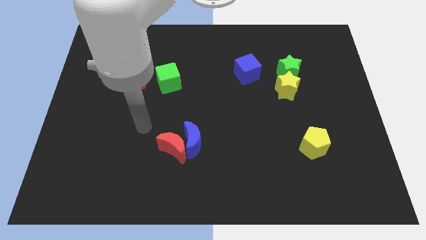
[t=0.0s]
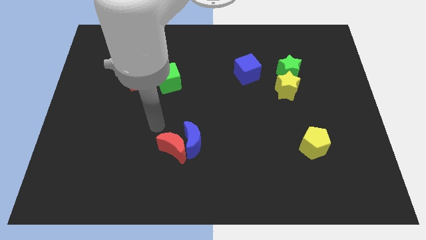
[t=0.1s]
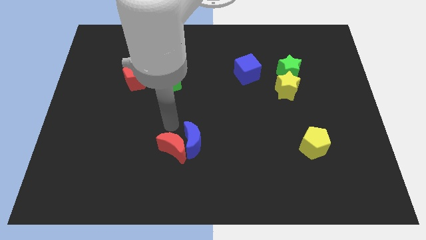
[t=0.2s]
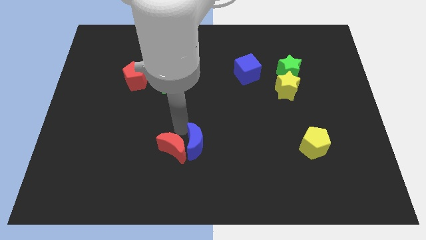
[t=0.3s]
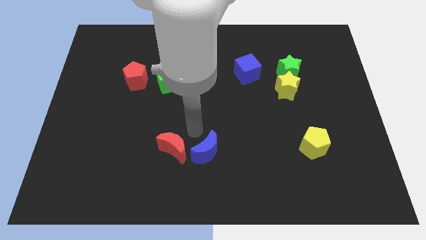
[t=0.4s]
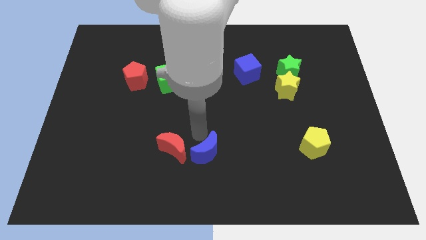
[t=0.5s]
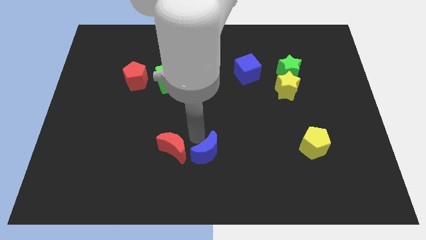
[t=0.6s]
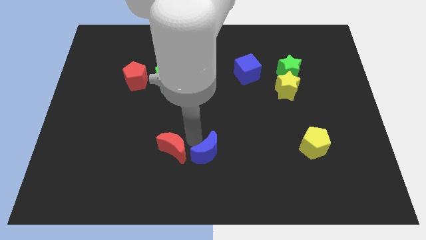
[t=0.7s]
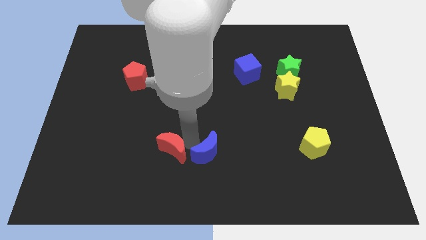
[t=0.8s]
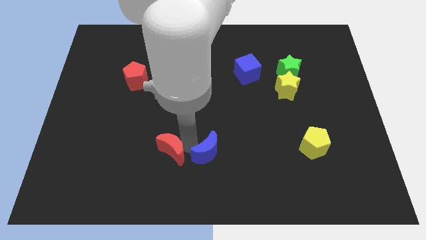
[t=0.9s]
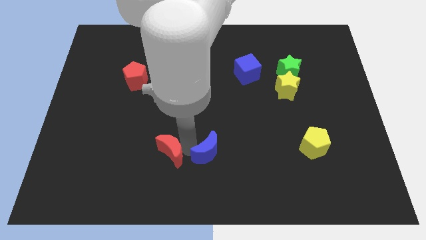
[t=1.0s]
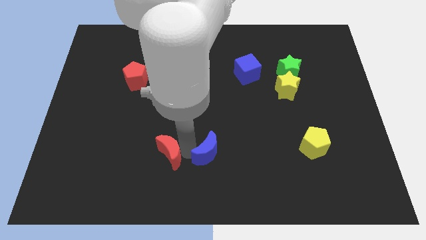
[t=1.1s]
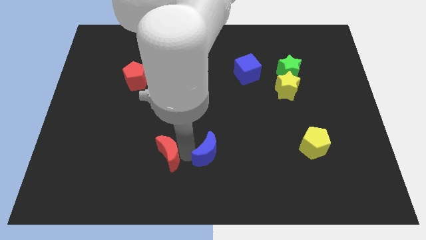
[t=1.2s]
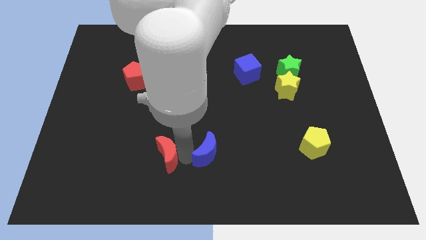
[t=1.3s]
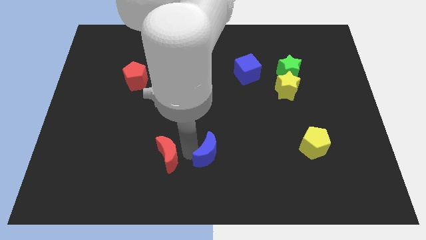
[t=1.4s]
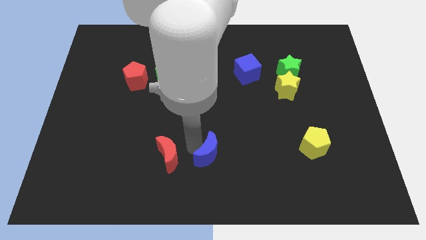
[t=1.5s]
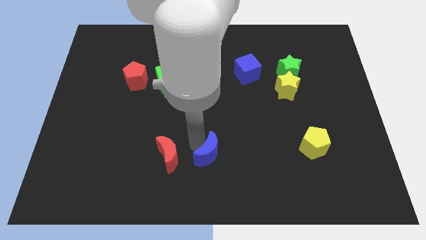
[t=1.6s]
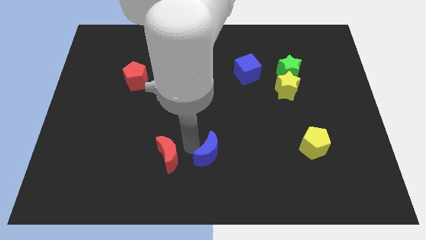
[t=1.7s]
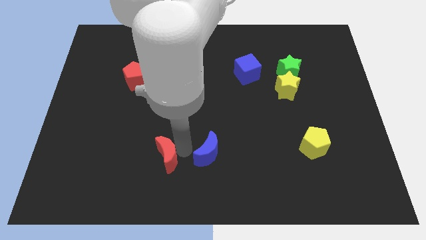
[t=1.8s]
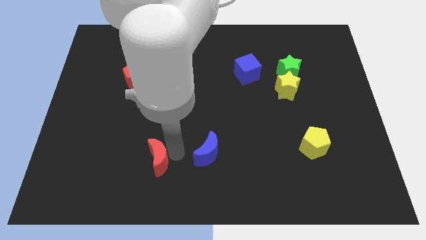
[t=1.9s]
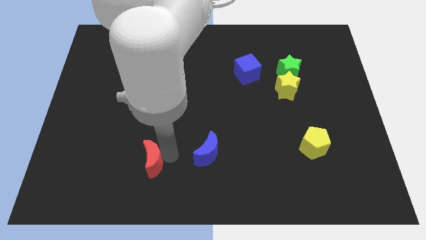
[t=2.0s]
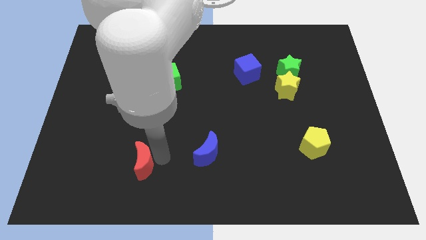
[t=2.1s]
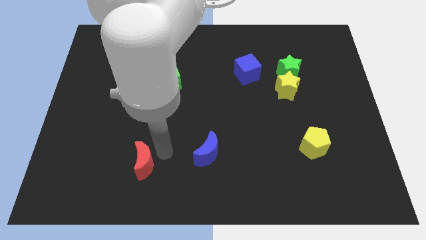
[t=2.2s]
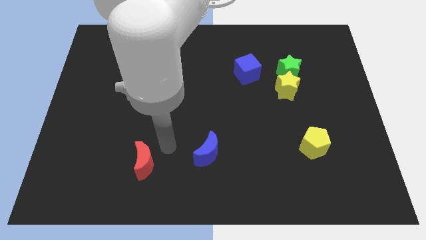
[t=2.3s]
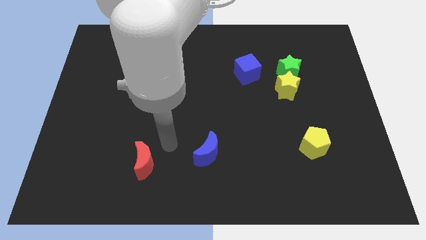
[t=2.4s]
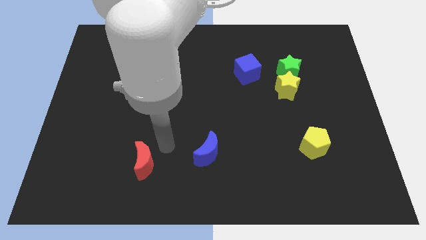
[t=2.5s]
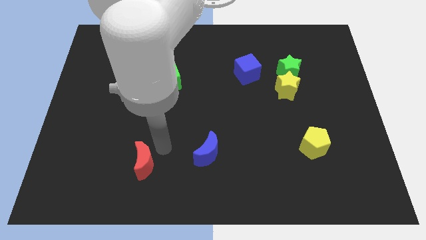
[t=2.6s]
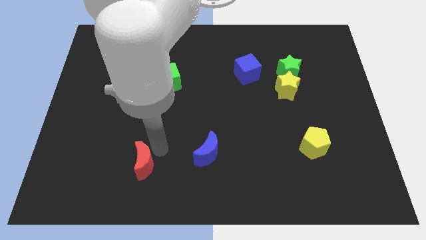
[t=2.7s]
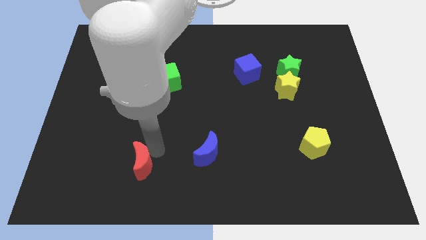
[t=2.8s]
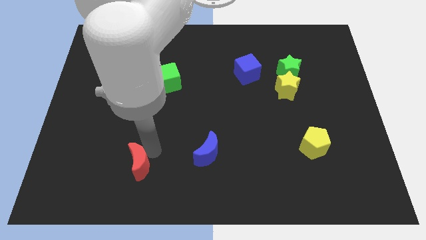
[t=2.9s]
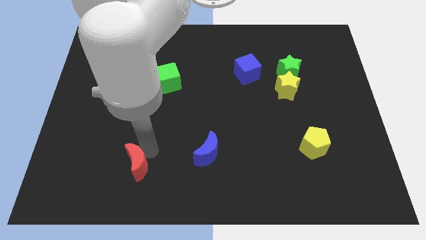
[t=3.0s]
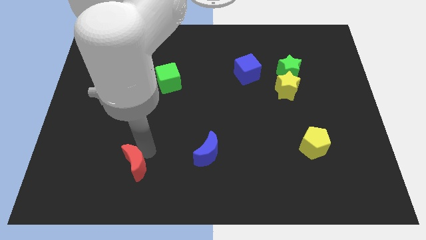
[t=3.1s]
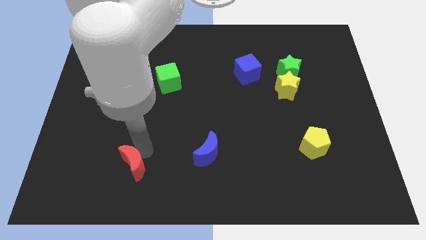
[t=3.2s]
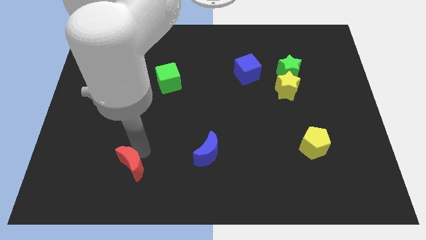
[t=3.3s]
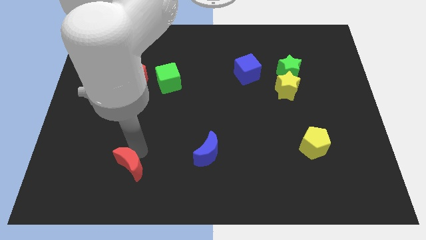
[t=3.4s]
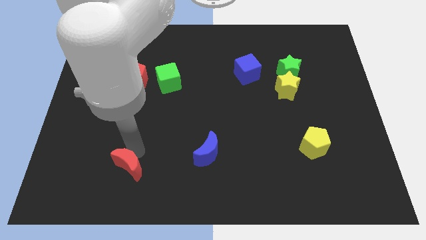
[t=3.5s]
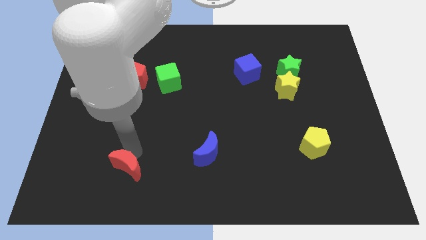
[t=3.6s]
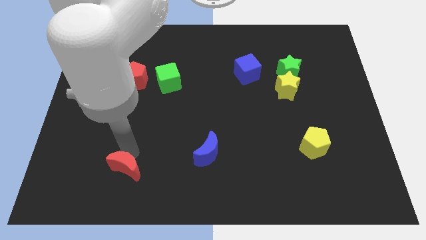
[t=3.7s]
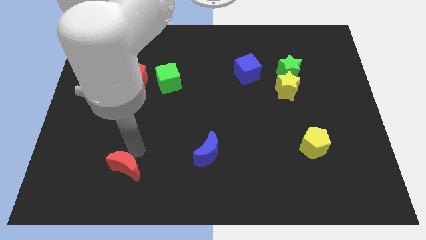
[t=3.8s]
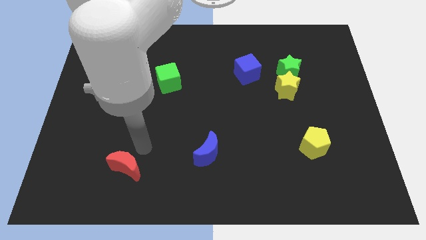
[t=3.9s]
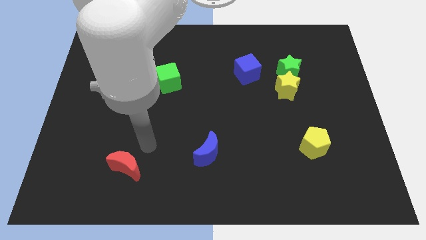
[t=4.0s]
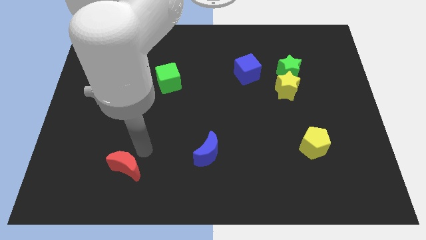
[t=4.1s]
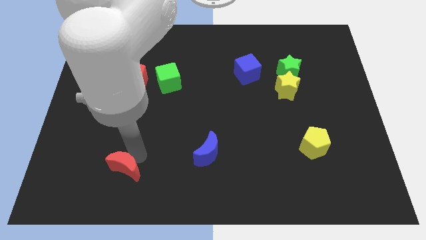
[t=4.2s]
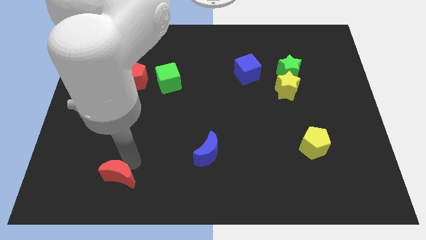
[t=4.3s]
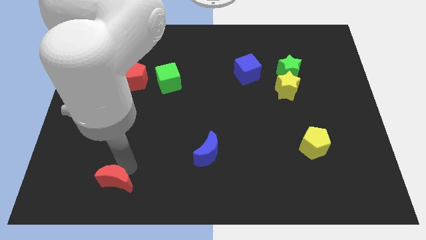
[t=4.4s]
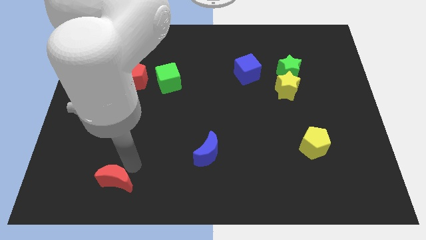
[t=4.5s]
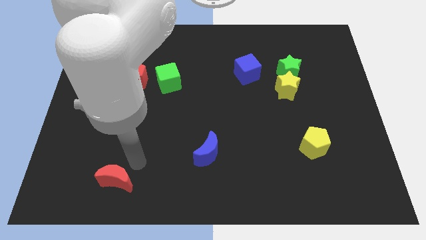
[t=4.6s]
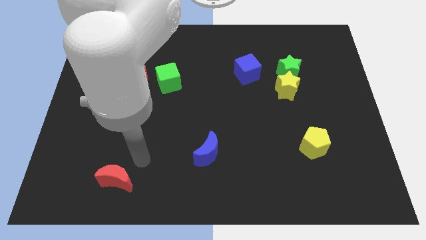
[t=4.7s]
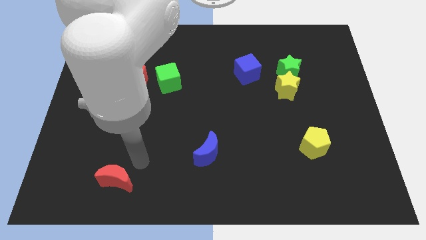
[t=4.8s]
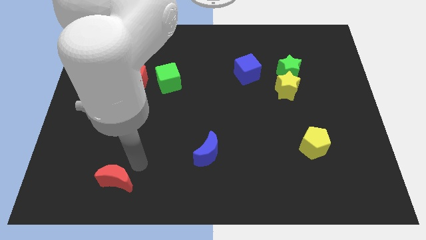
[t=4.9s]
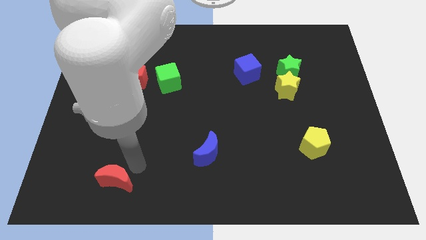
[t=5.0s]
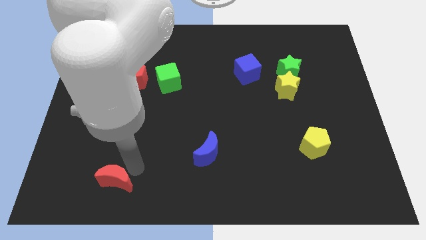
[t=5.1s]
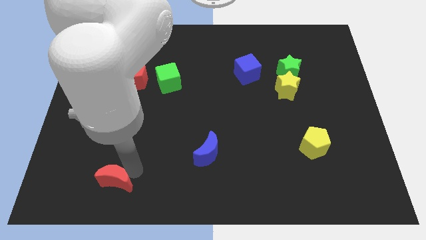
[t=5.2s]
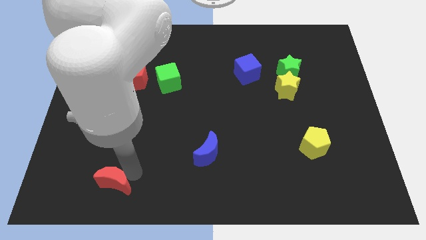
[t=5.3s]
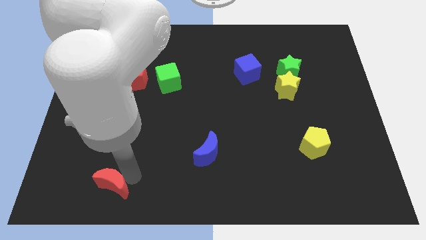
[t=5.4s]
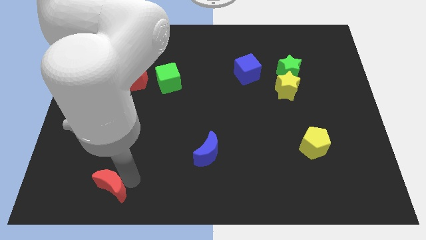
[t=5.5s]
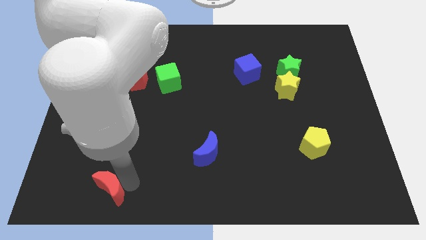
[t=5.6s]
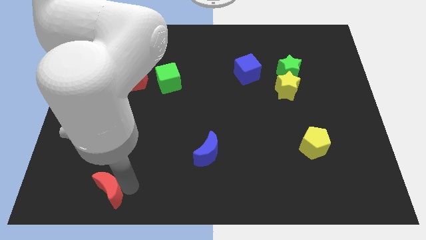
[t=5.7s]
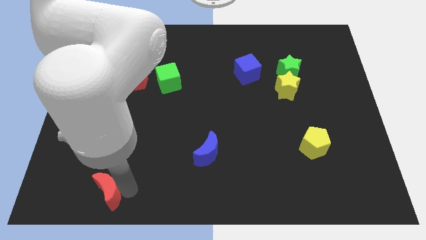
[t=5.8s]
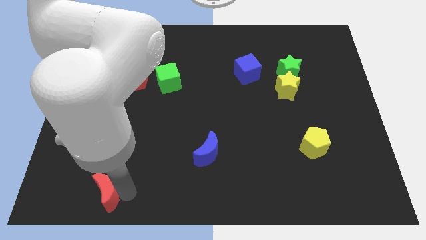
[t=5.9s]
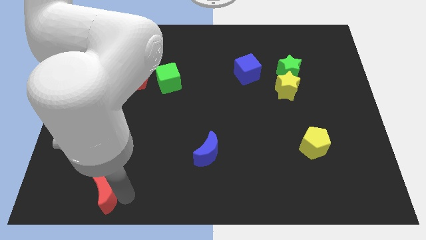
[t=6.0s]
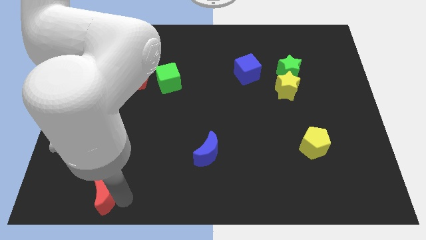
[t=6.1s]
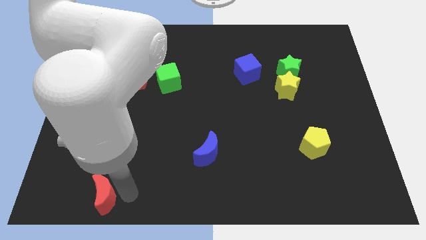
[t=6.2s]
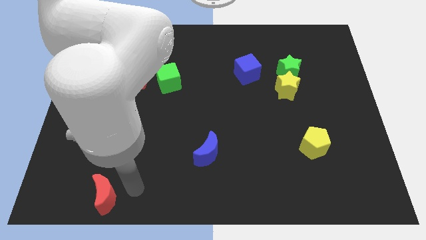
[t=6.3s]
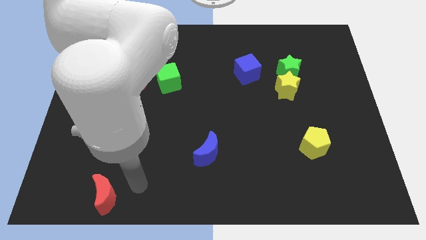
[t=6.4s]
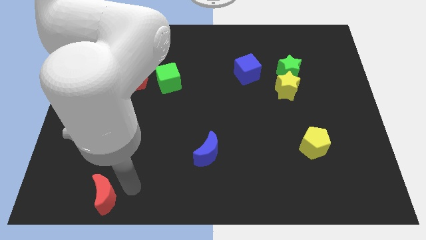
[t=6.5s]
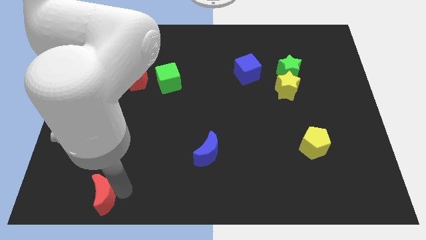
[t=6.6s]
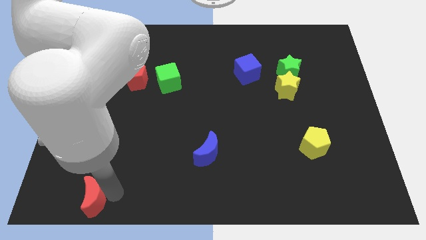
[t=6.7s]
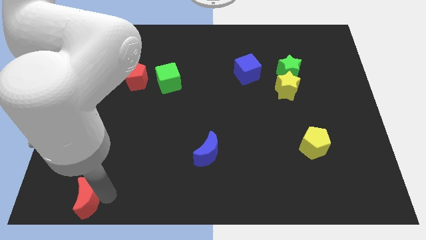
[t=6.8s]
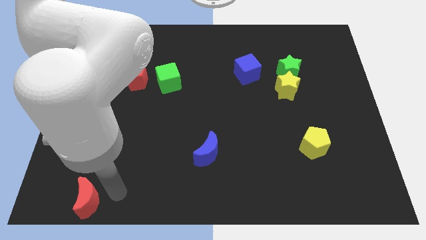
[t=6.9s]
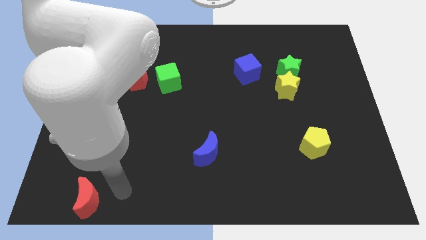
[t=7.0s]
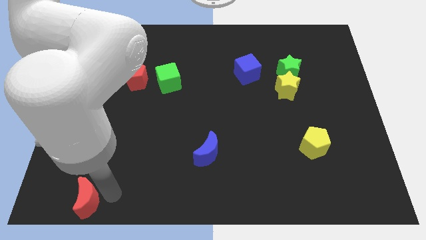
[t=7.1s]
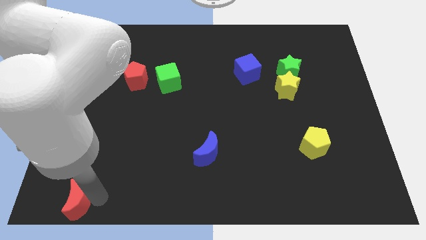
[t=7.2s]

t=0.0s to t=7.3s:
slide the red moon to the bottom left of the board
